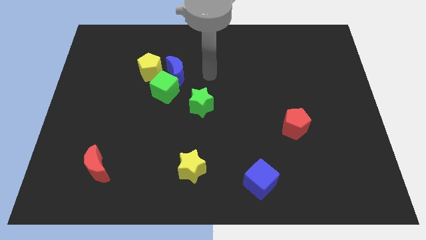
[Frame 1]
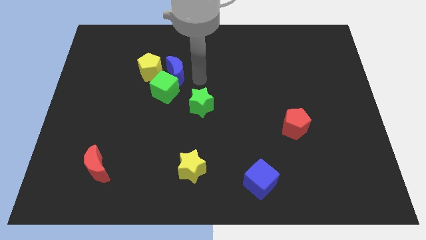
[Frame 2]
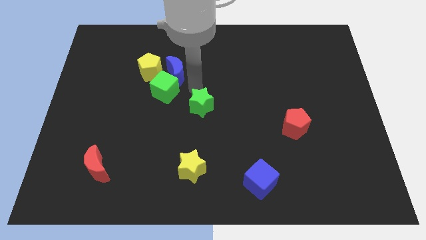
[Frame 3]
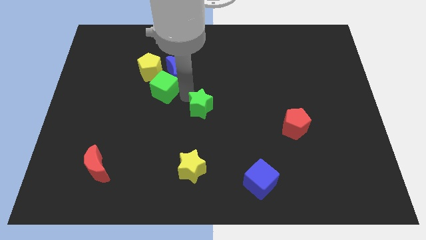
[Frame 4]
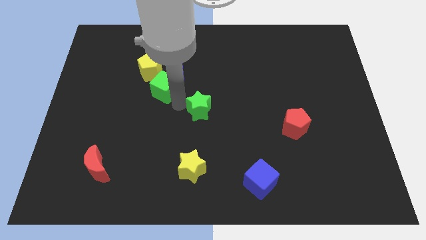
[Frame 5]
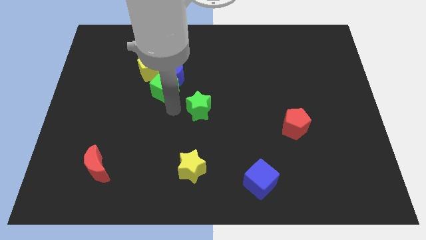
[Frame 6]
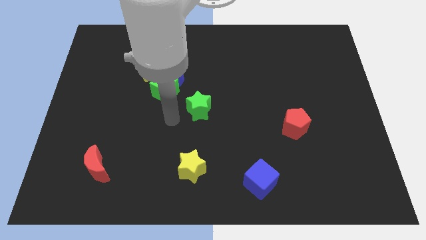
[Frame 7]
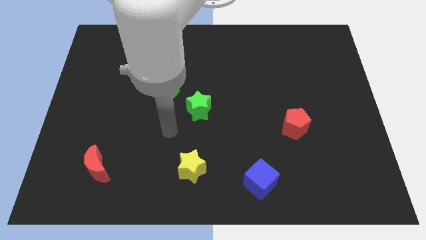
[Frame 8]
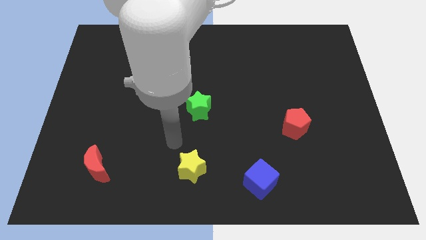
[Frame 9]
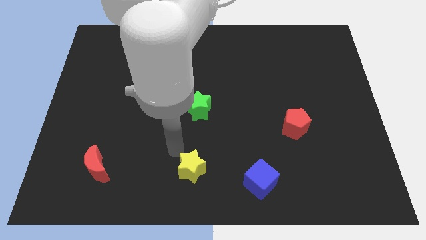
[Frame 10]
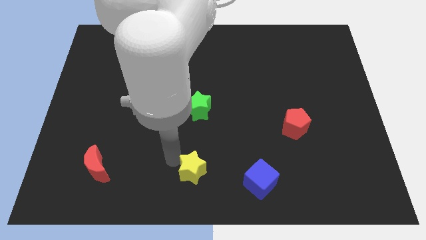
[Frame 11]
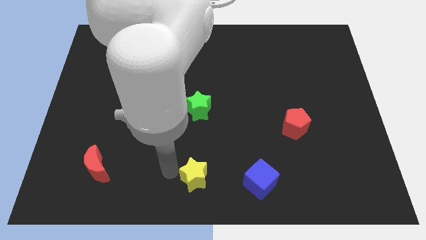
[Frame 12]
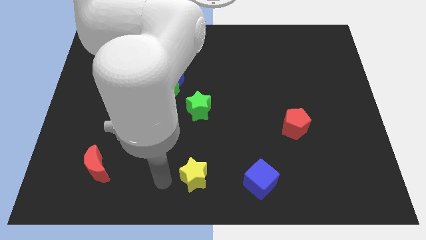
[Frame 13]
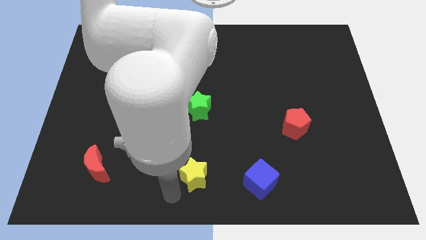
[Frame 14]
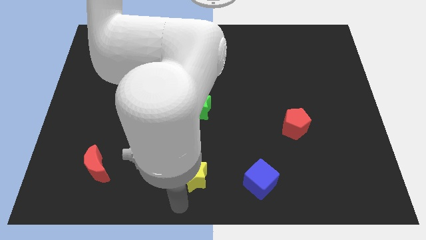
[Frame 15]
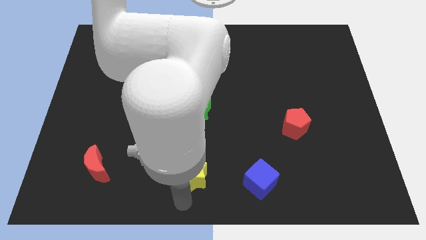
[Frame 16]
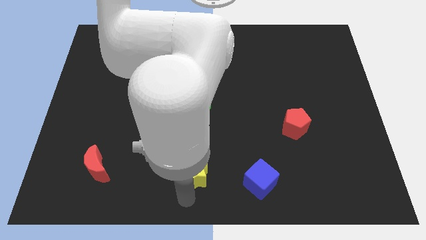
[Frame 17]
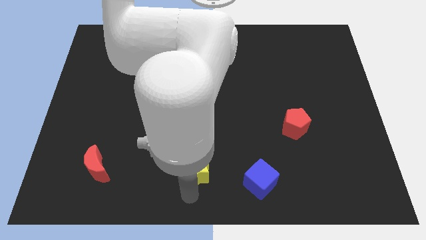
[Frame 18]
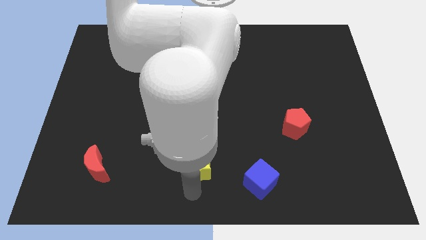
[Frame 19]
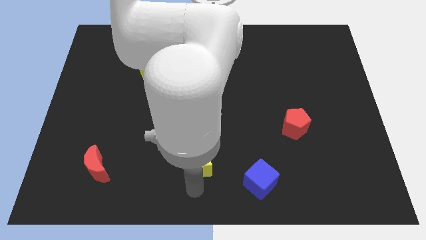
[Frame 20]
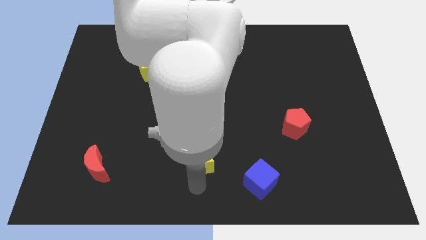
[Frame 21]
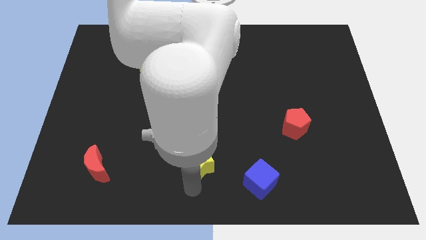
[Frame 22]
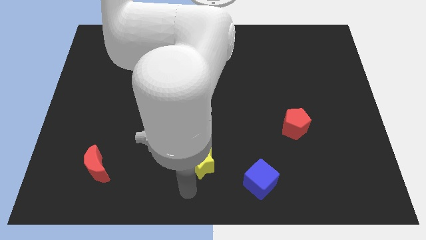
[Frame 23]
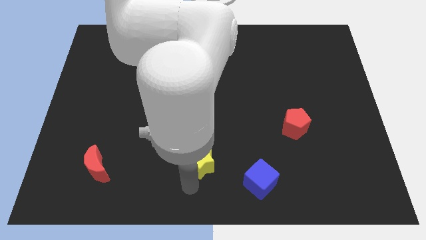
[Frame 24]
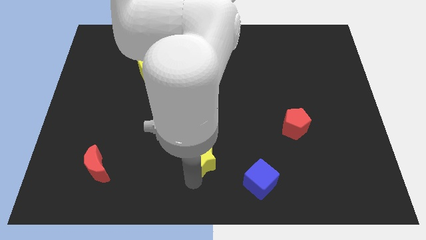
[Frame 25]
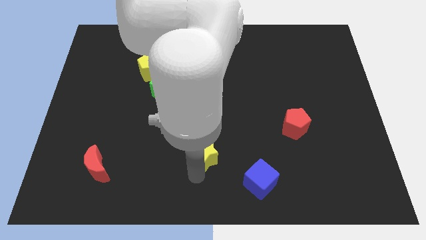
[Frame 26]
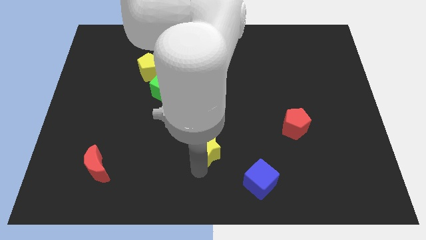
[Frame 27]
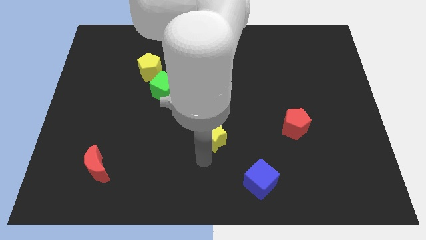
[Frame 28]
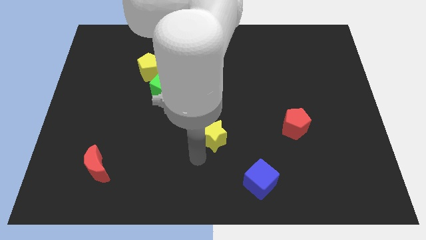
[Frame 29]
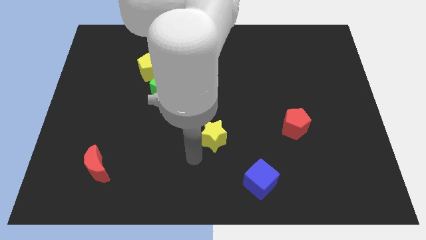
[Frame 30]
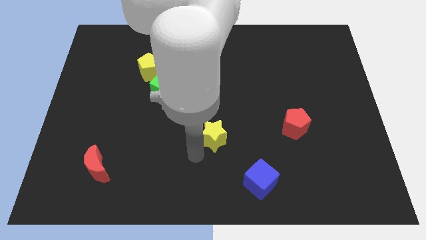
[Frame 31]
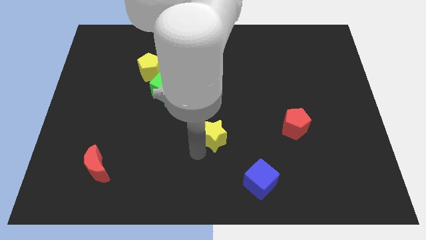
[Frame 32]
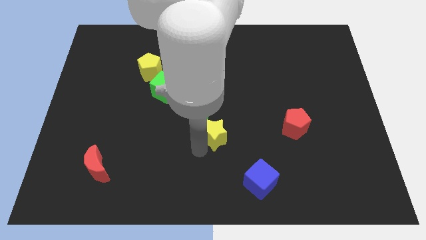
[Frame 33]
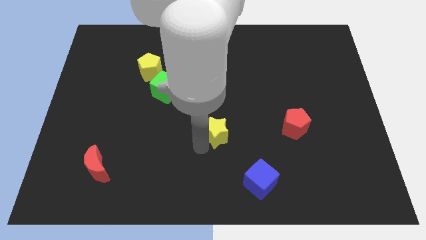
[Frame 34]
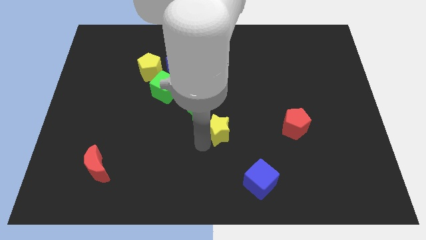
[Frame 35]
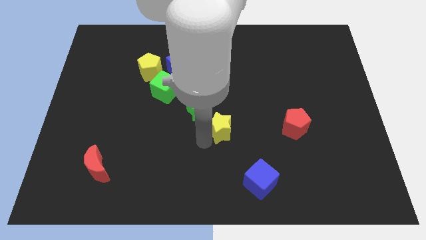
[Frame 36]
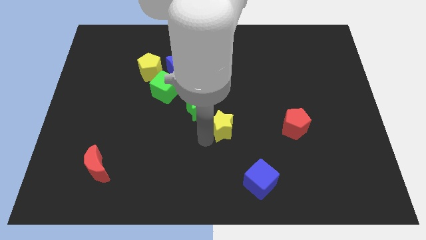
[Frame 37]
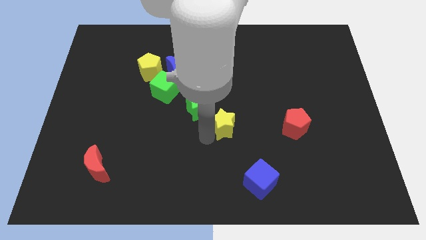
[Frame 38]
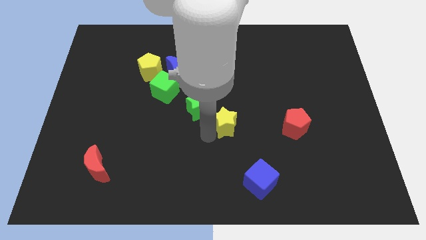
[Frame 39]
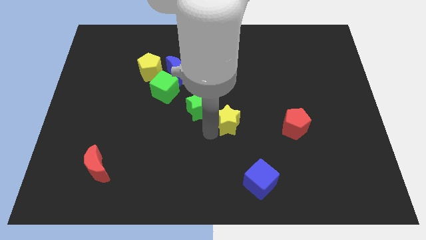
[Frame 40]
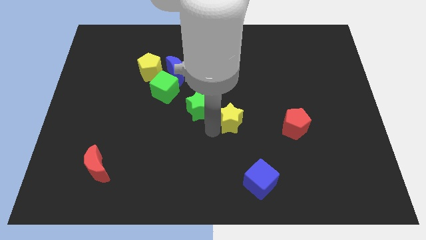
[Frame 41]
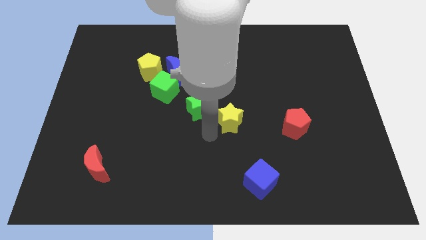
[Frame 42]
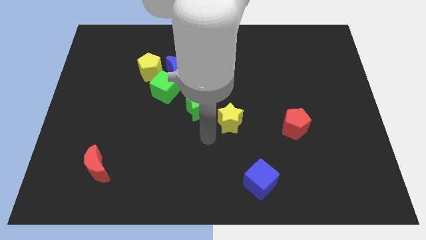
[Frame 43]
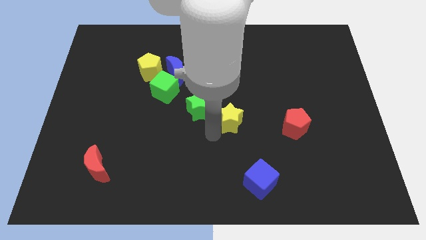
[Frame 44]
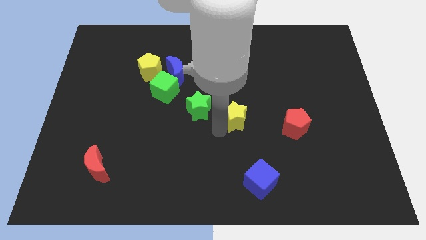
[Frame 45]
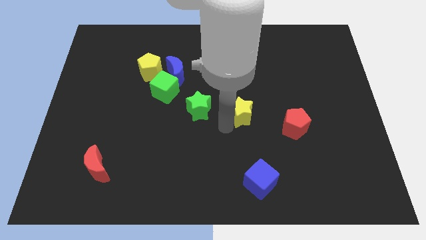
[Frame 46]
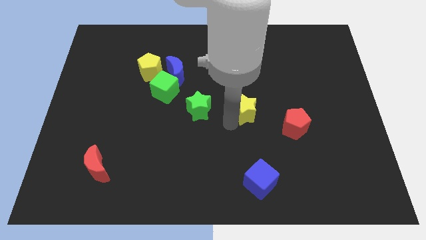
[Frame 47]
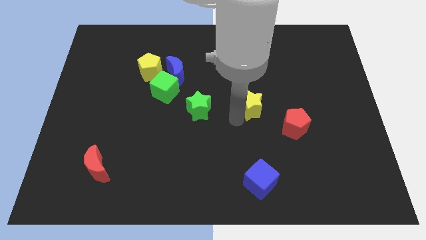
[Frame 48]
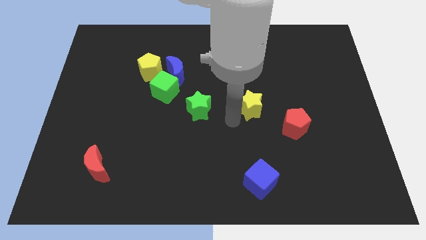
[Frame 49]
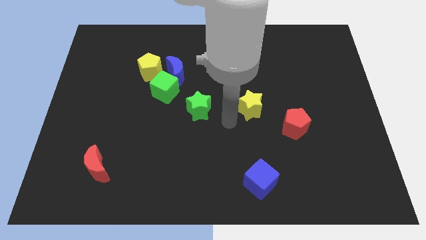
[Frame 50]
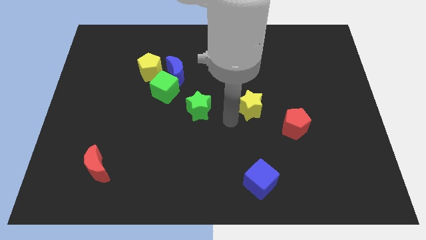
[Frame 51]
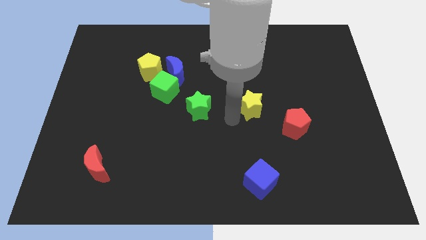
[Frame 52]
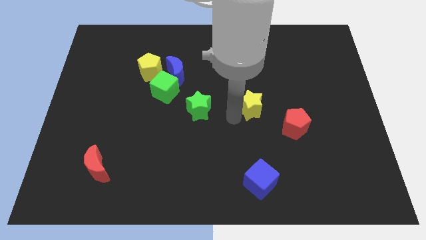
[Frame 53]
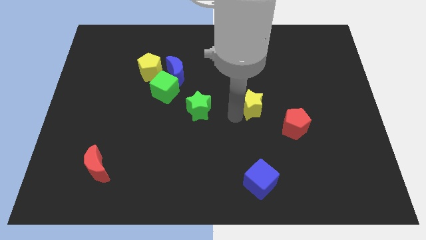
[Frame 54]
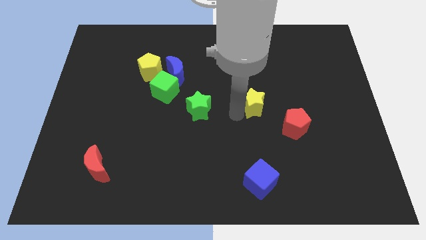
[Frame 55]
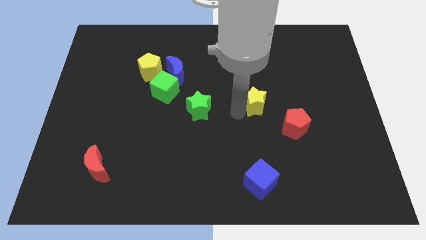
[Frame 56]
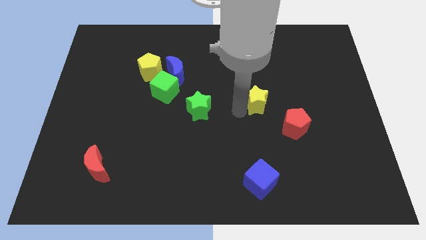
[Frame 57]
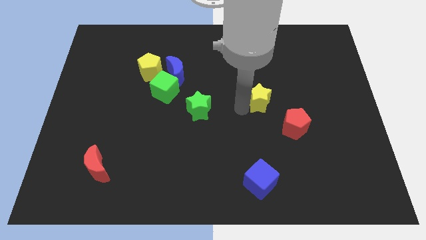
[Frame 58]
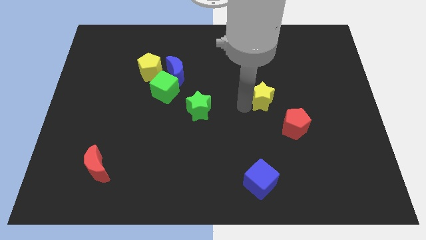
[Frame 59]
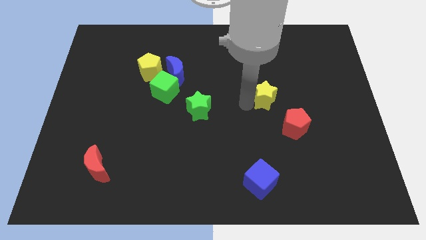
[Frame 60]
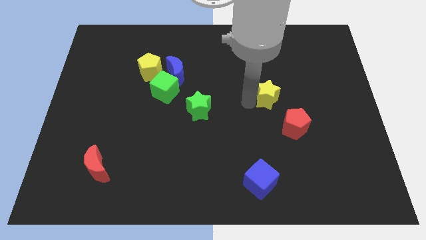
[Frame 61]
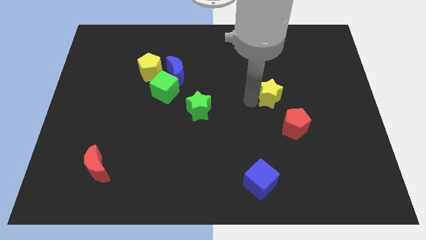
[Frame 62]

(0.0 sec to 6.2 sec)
push the yellow star to the top side of the red pentagon

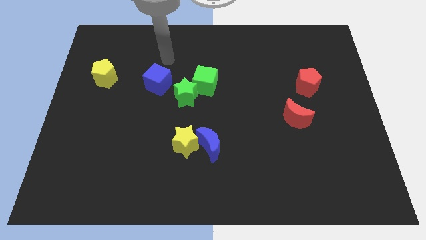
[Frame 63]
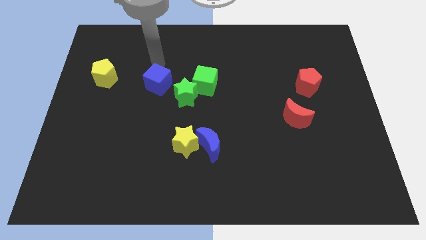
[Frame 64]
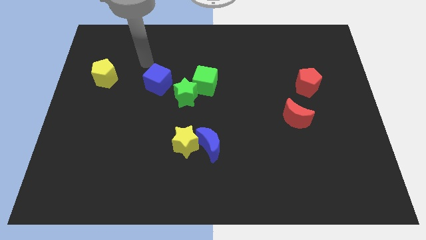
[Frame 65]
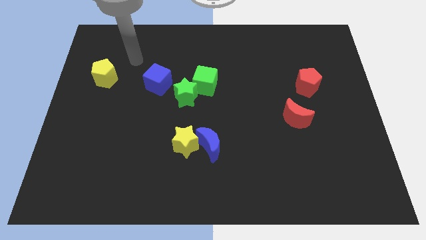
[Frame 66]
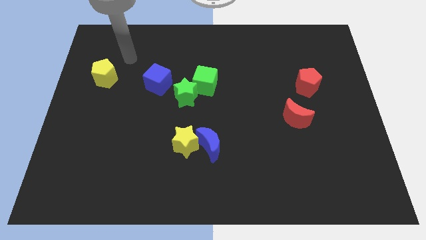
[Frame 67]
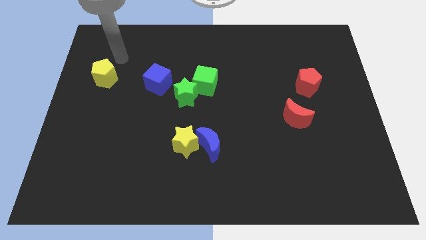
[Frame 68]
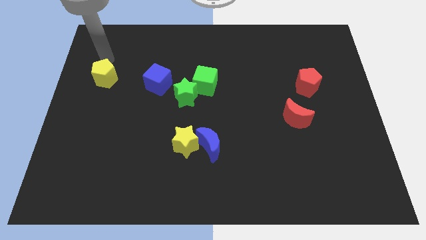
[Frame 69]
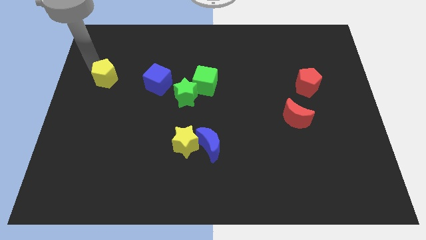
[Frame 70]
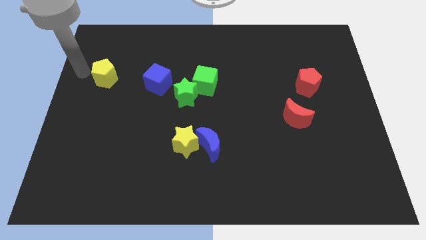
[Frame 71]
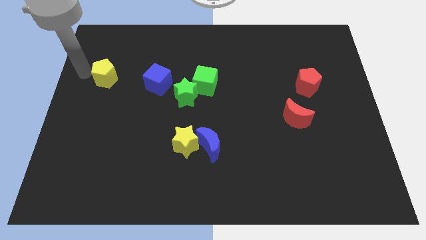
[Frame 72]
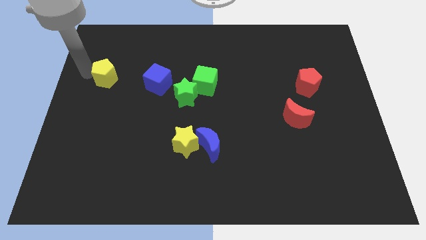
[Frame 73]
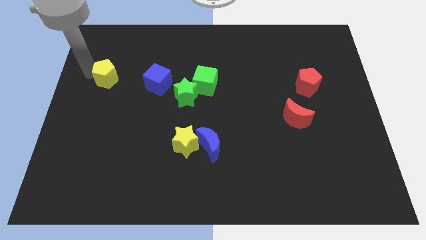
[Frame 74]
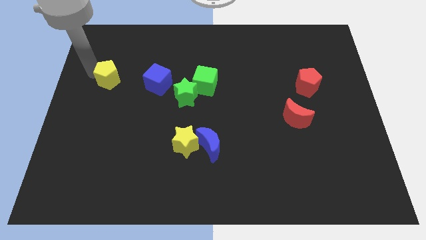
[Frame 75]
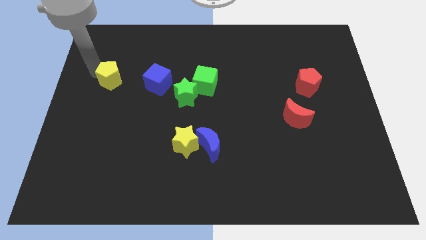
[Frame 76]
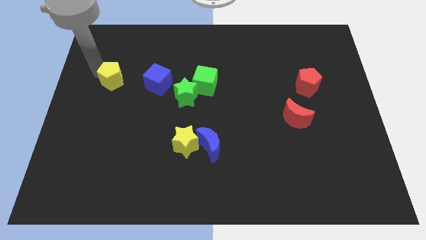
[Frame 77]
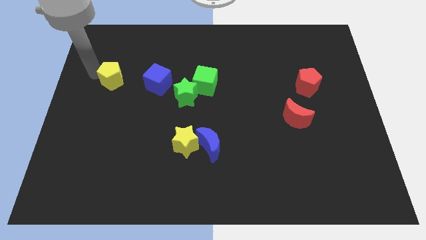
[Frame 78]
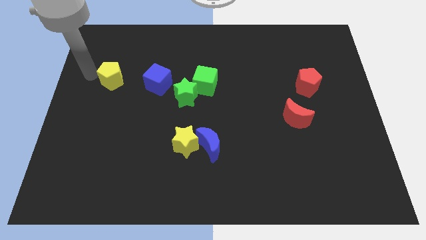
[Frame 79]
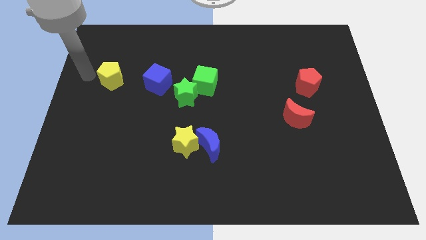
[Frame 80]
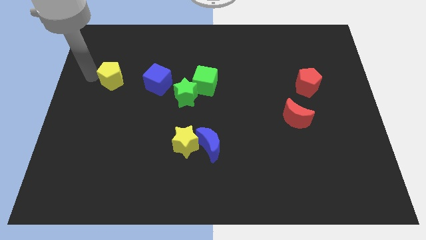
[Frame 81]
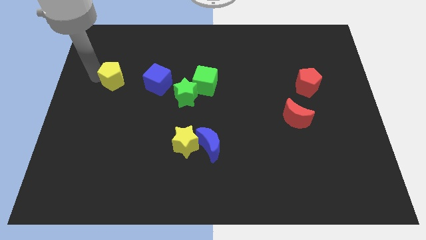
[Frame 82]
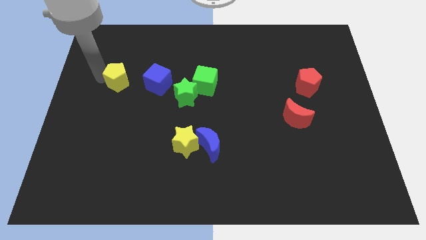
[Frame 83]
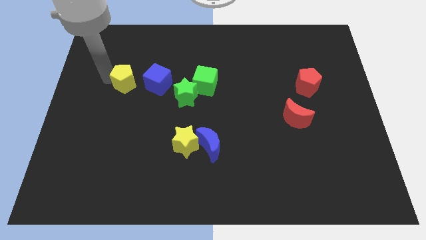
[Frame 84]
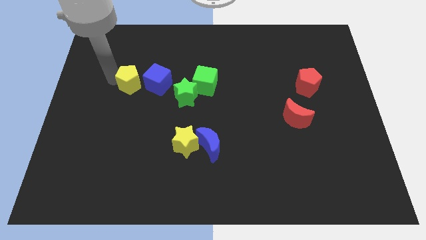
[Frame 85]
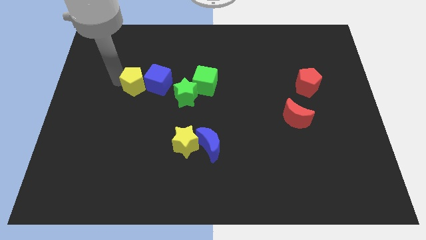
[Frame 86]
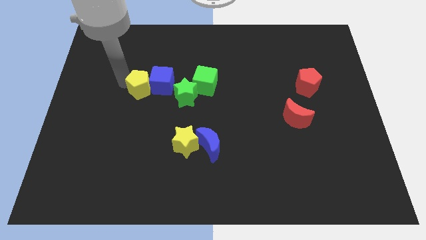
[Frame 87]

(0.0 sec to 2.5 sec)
push the yellow pentagon to the left side of the green cube
